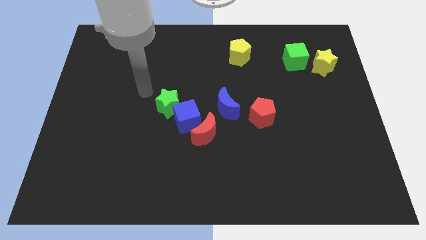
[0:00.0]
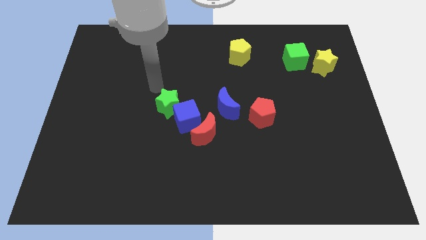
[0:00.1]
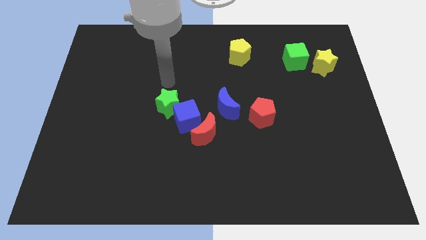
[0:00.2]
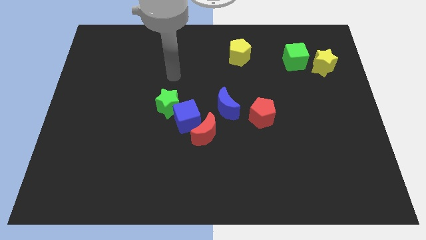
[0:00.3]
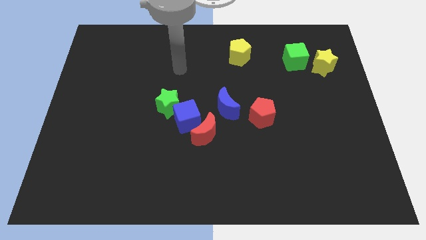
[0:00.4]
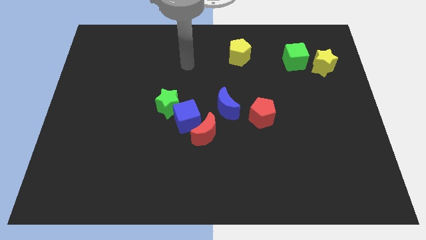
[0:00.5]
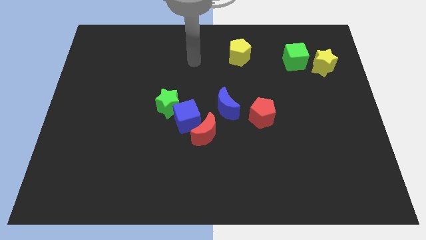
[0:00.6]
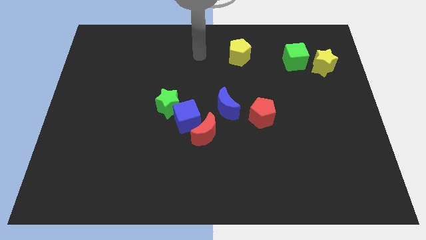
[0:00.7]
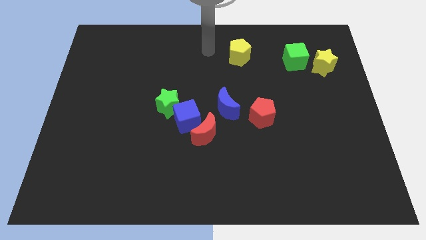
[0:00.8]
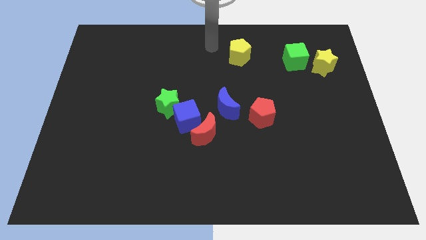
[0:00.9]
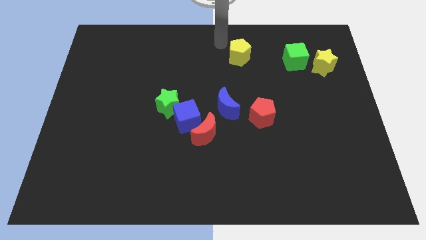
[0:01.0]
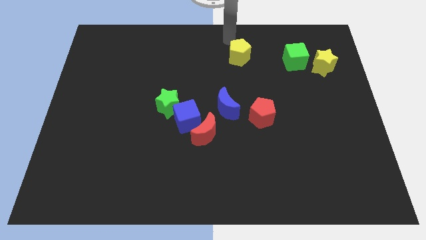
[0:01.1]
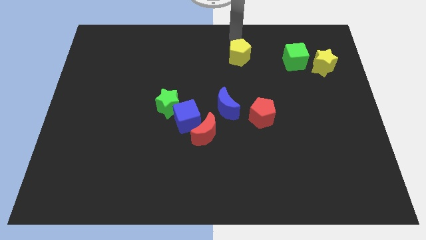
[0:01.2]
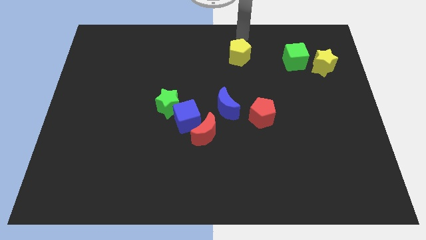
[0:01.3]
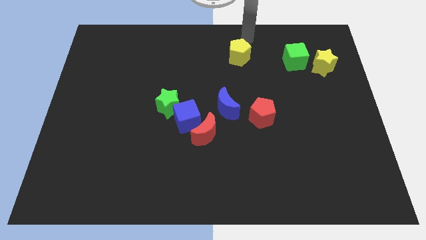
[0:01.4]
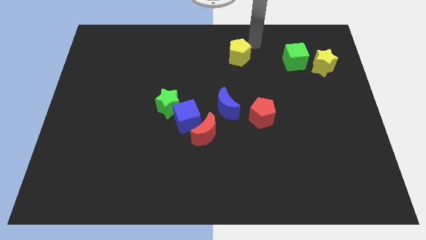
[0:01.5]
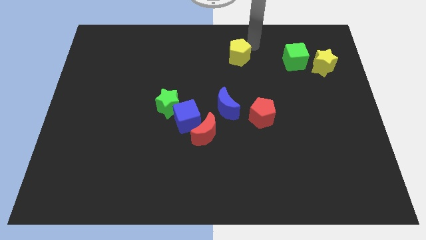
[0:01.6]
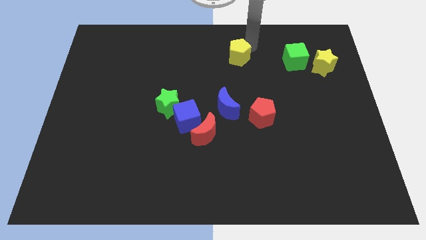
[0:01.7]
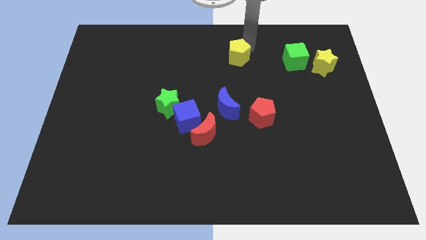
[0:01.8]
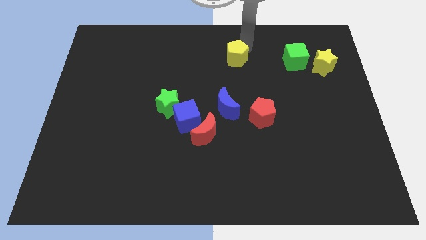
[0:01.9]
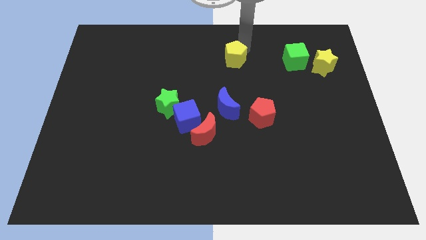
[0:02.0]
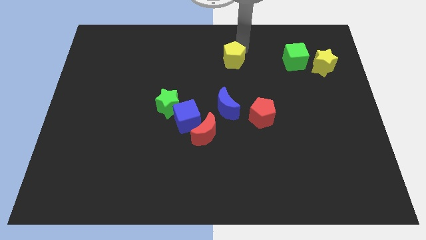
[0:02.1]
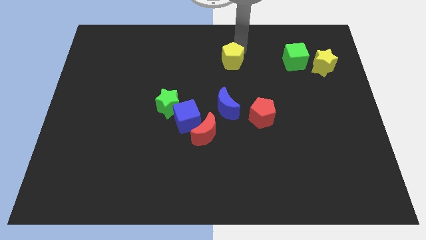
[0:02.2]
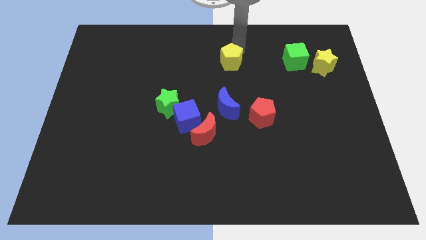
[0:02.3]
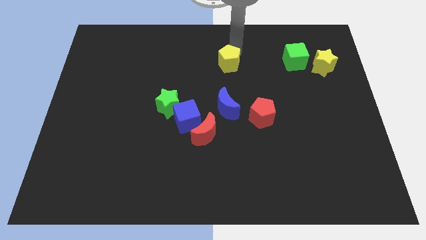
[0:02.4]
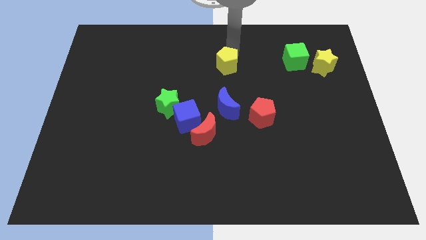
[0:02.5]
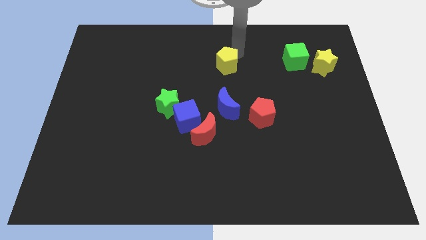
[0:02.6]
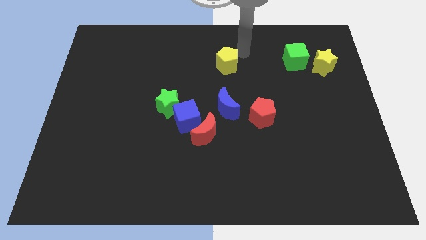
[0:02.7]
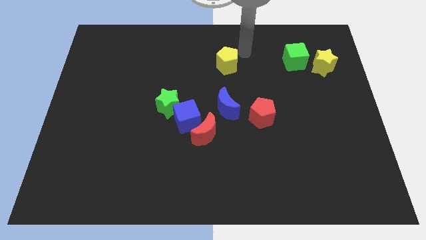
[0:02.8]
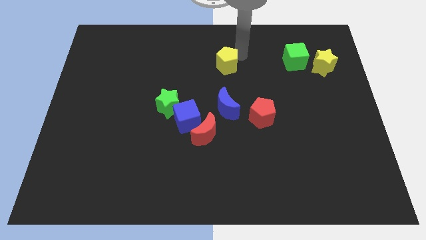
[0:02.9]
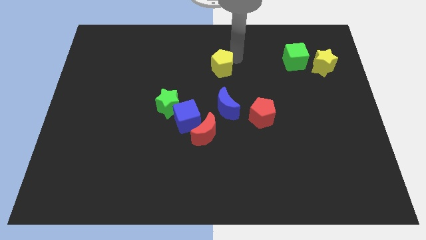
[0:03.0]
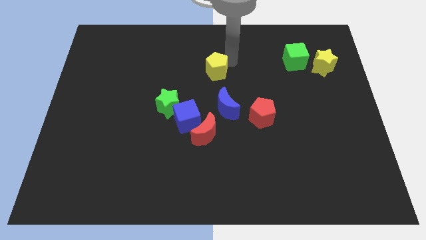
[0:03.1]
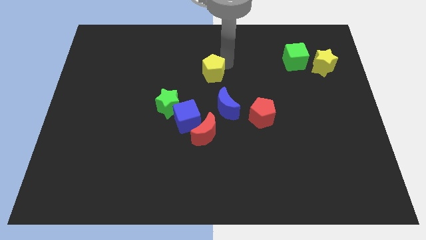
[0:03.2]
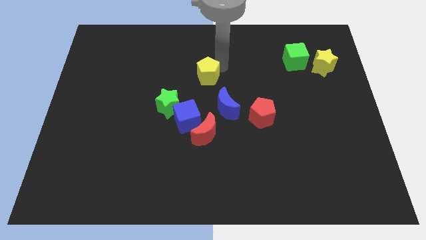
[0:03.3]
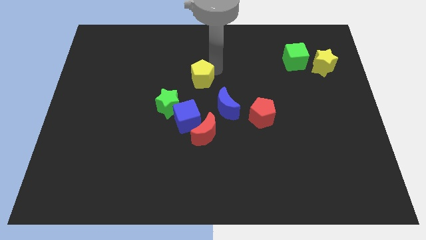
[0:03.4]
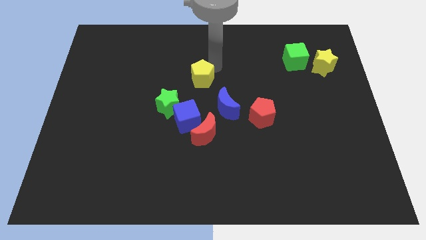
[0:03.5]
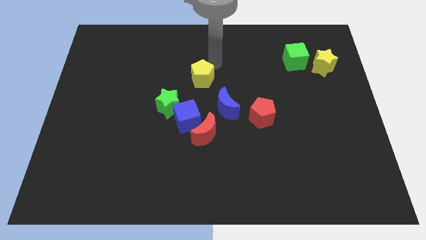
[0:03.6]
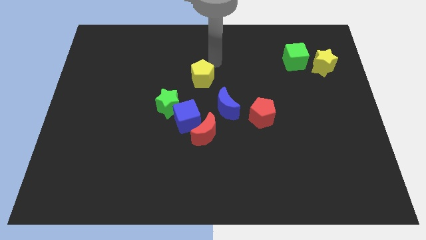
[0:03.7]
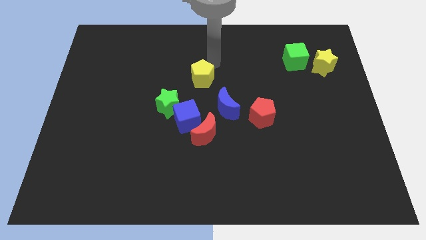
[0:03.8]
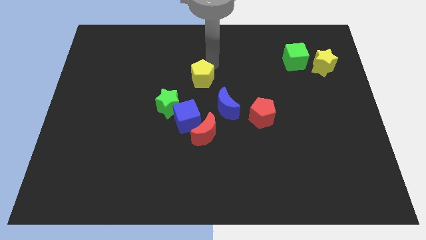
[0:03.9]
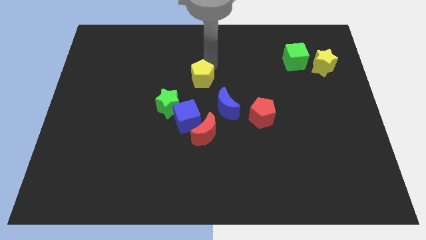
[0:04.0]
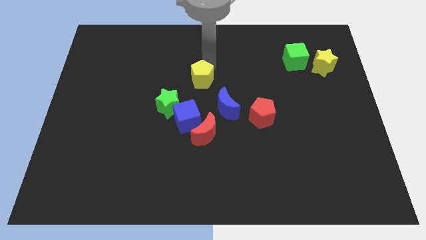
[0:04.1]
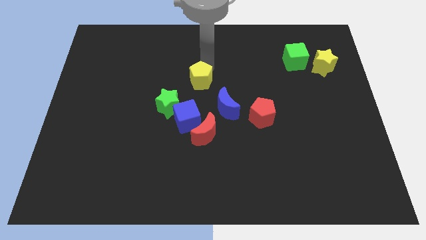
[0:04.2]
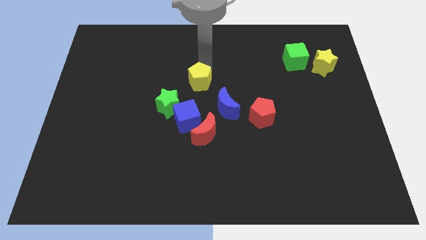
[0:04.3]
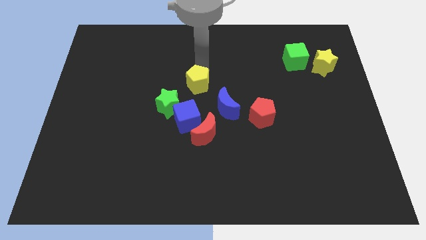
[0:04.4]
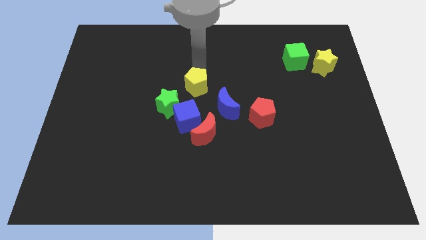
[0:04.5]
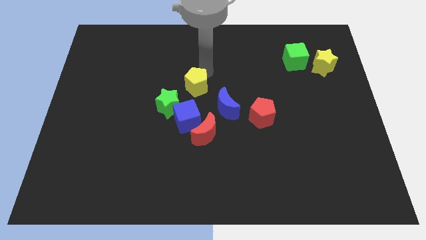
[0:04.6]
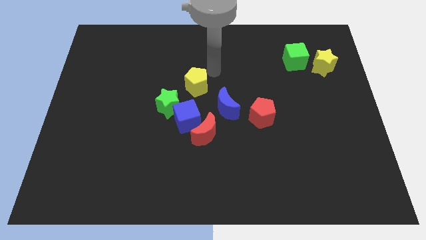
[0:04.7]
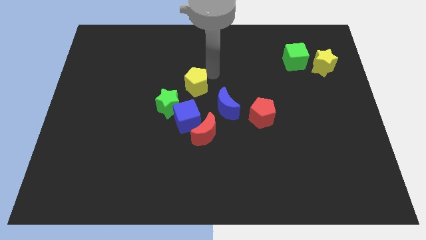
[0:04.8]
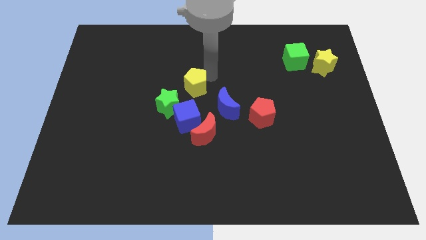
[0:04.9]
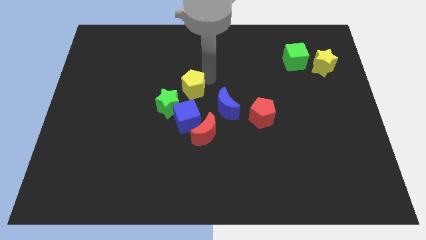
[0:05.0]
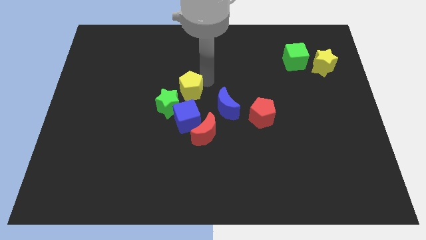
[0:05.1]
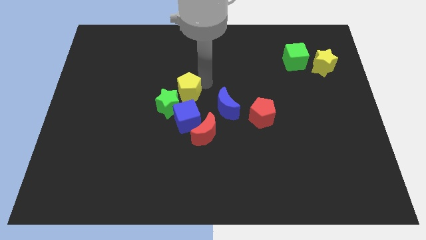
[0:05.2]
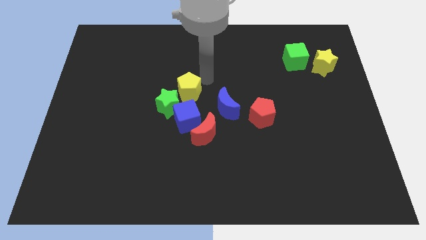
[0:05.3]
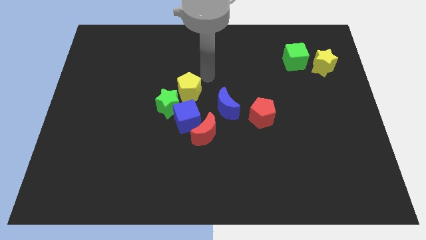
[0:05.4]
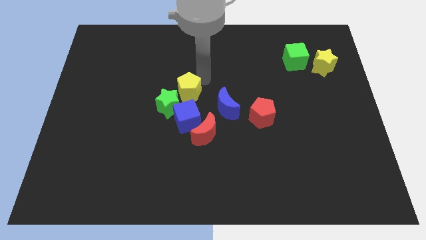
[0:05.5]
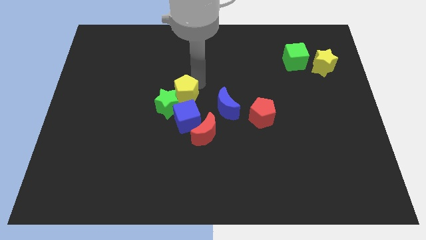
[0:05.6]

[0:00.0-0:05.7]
slide the yellow pentagon close to the green star

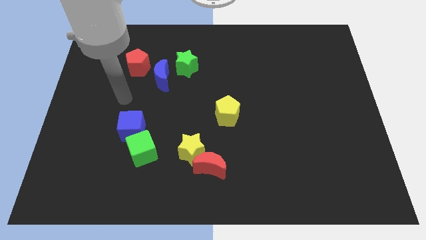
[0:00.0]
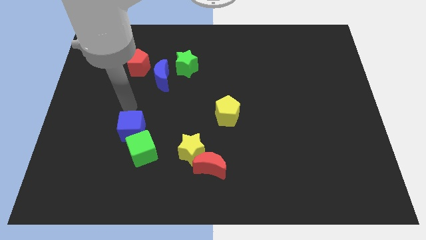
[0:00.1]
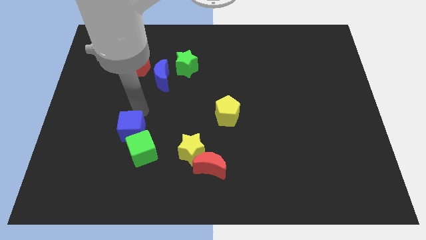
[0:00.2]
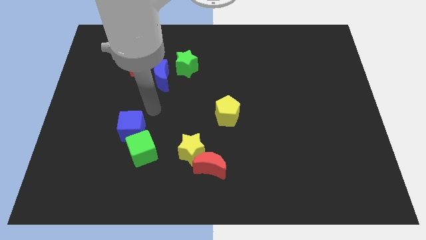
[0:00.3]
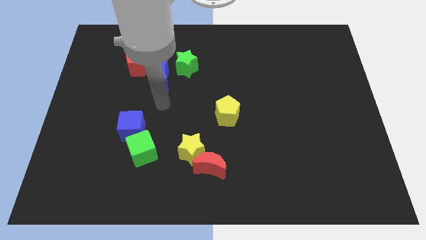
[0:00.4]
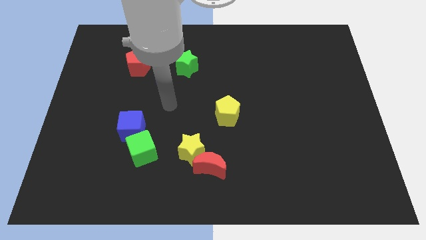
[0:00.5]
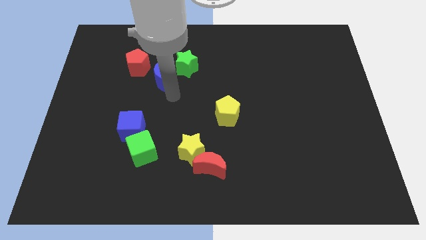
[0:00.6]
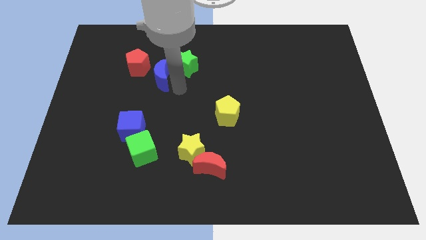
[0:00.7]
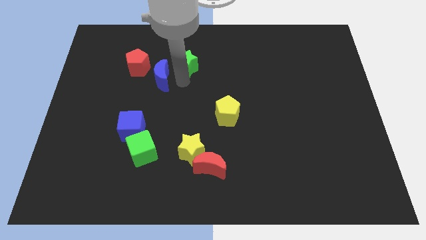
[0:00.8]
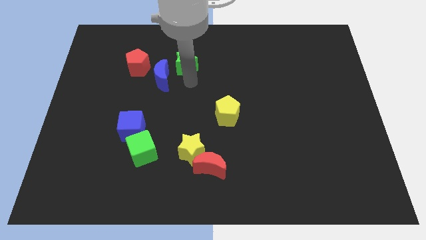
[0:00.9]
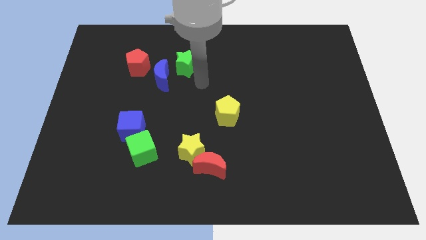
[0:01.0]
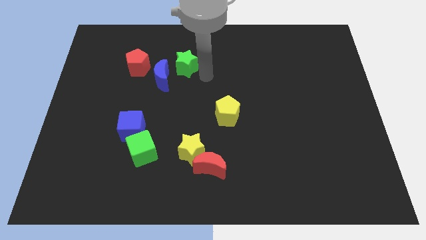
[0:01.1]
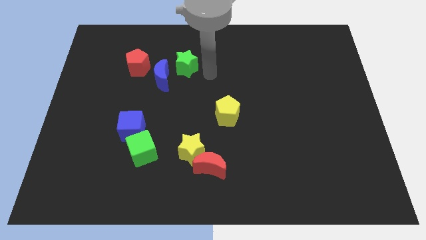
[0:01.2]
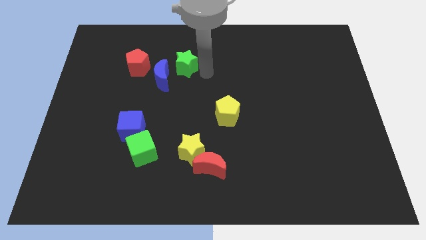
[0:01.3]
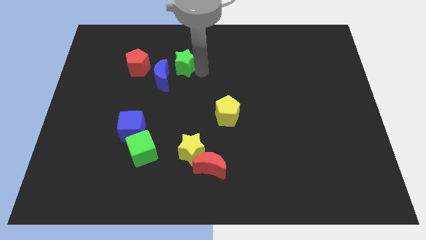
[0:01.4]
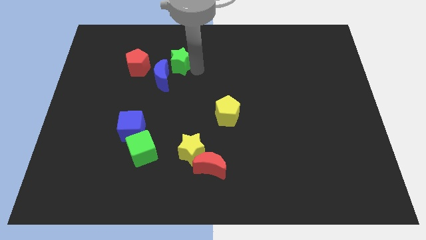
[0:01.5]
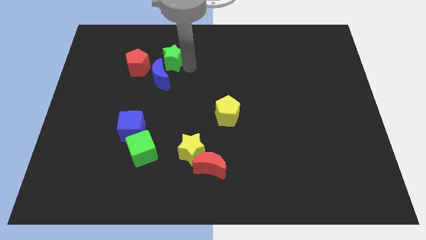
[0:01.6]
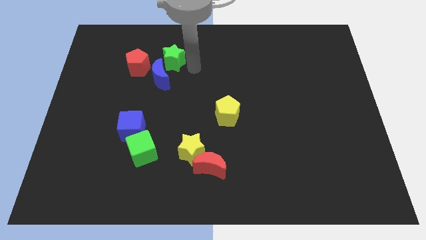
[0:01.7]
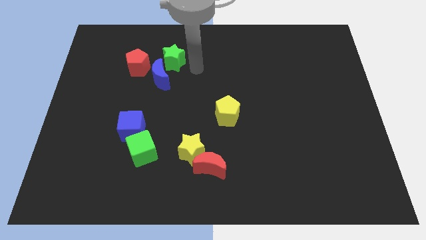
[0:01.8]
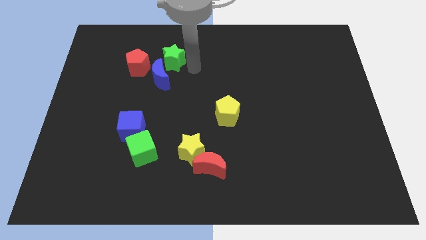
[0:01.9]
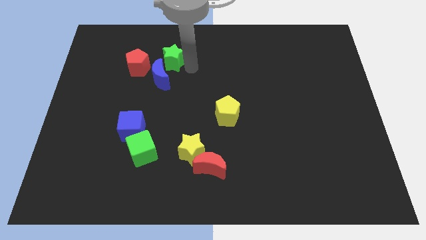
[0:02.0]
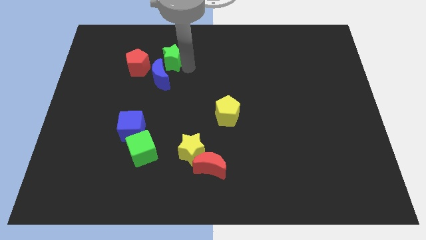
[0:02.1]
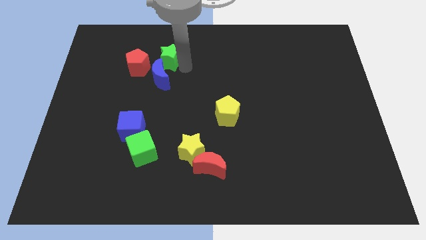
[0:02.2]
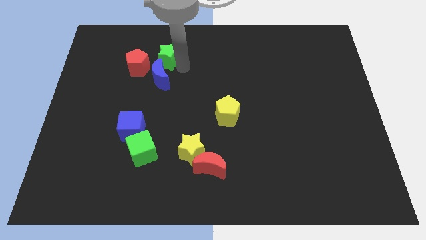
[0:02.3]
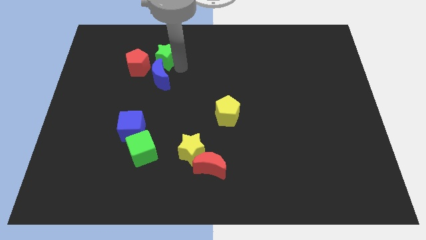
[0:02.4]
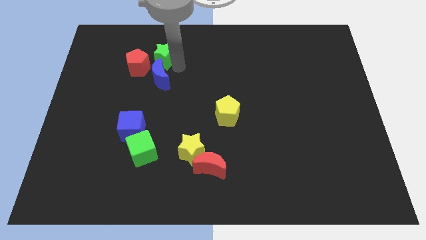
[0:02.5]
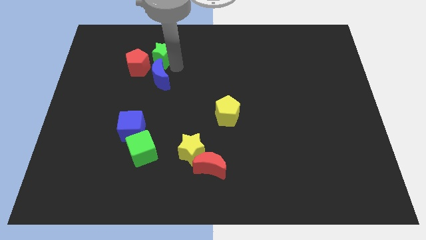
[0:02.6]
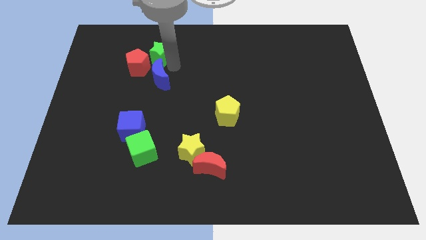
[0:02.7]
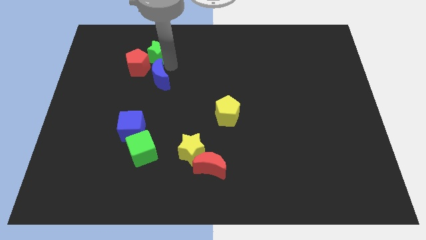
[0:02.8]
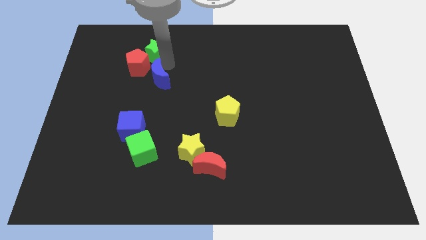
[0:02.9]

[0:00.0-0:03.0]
move the green star next to the red pentagon
